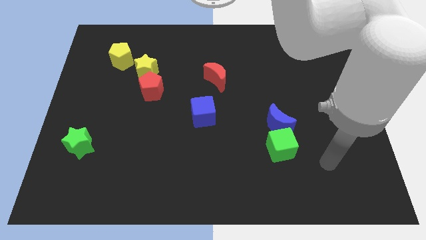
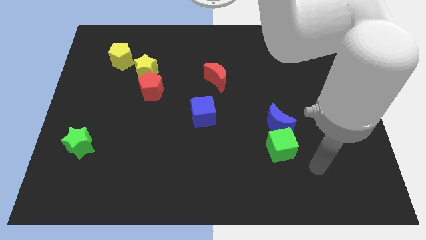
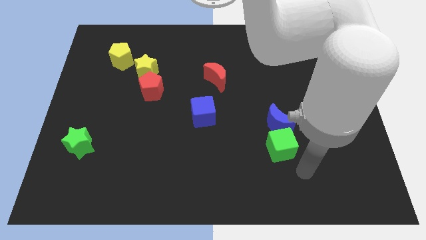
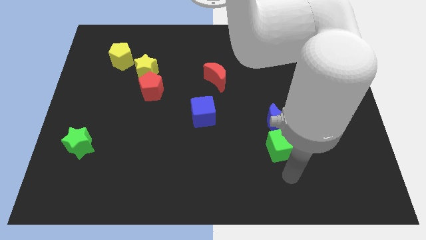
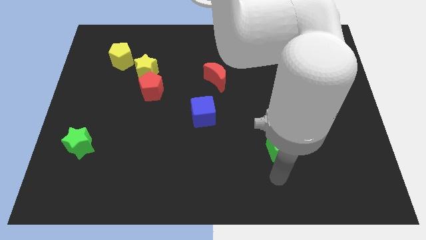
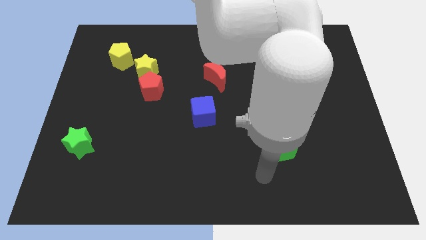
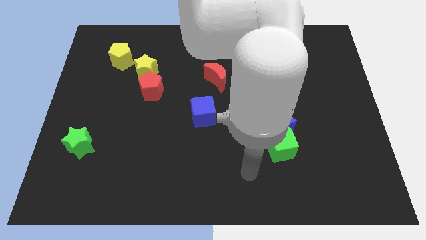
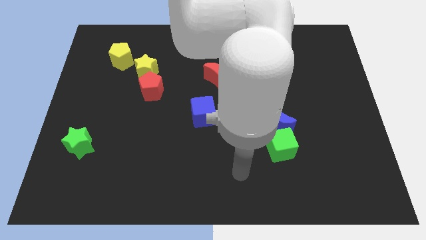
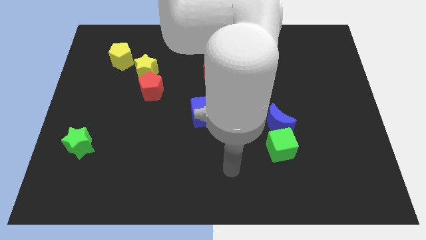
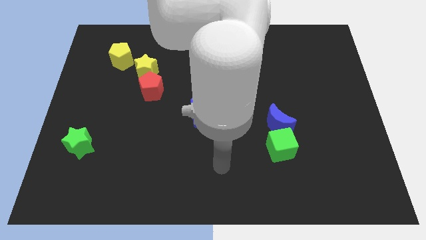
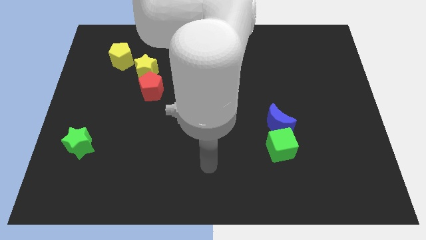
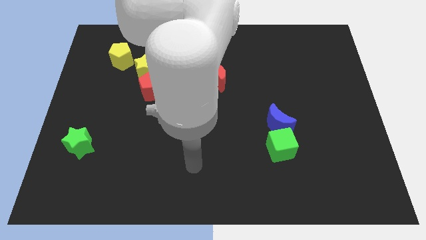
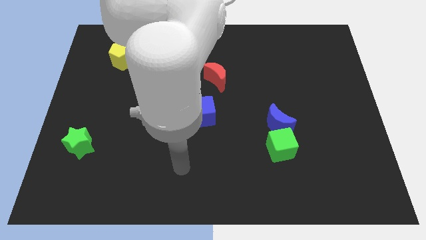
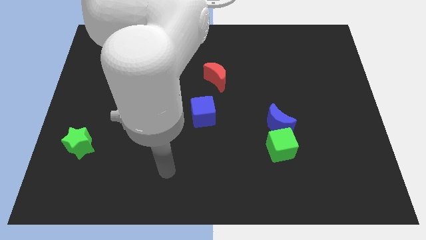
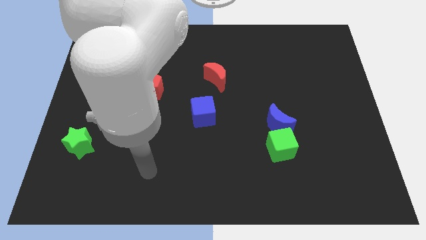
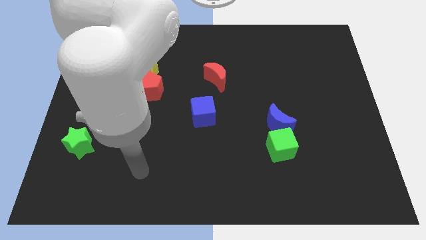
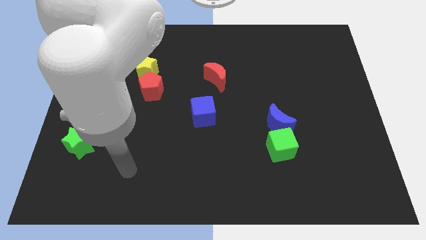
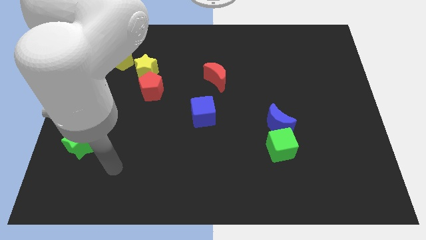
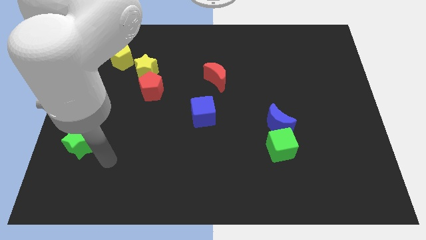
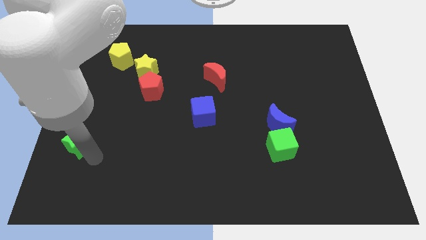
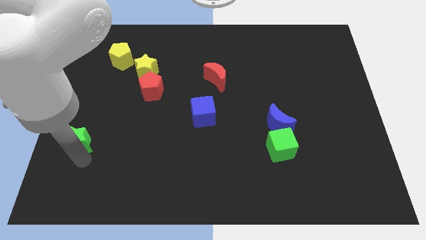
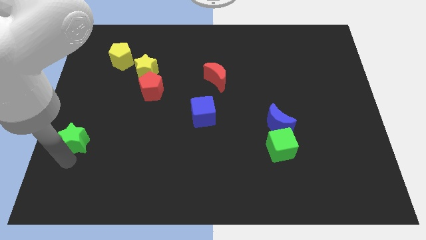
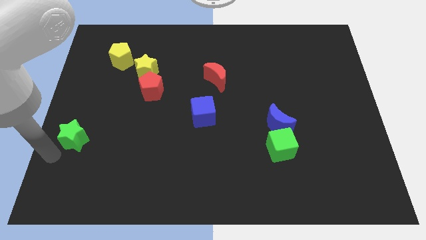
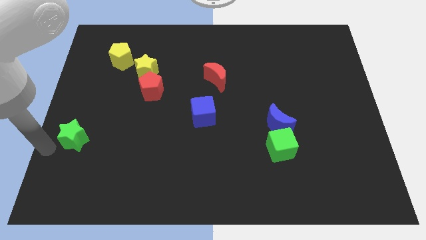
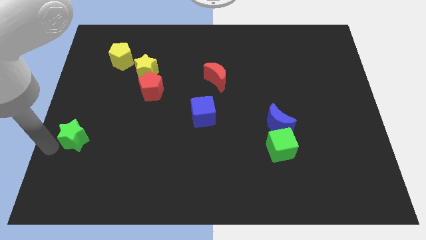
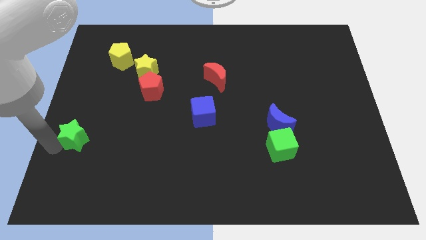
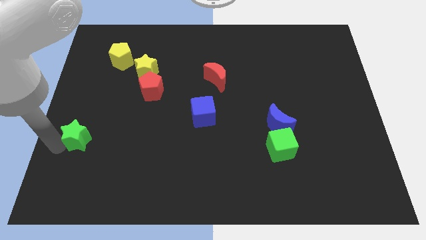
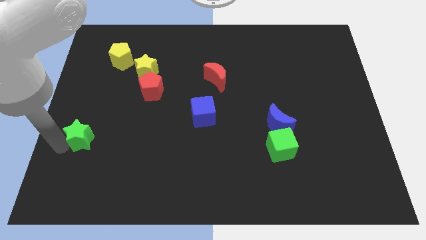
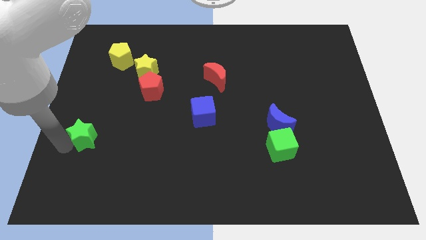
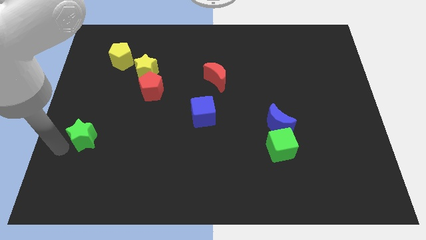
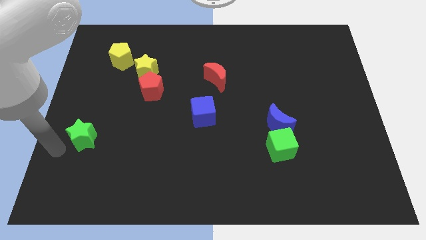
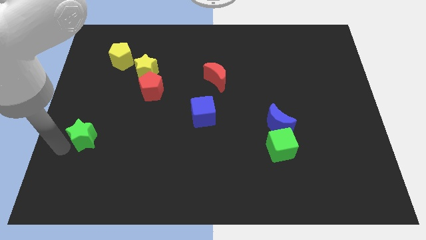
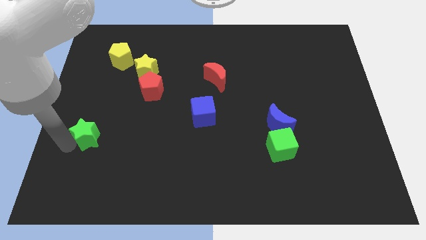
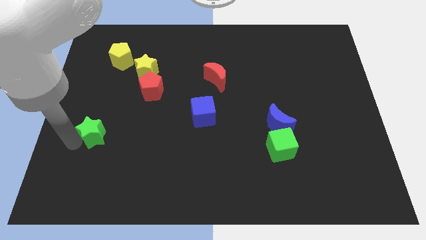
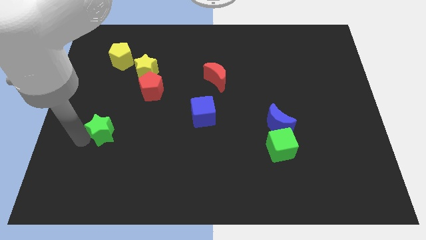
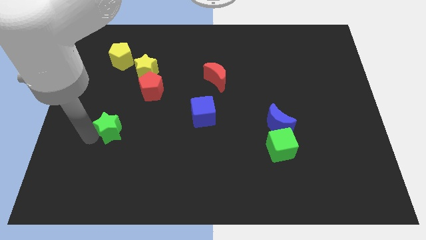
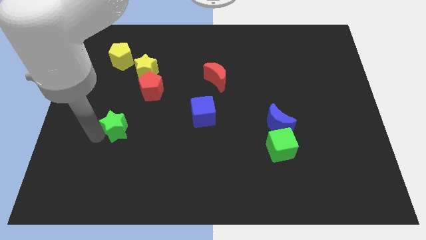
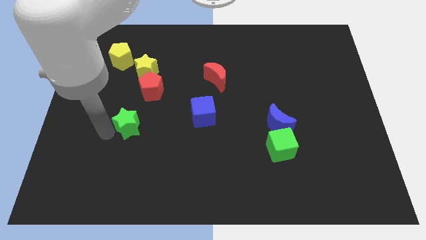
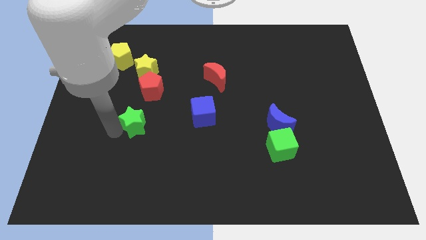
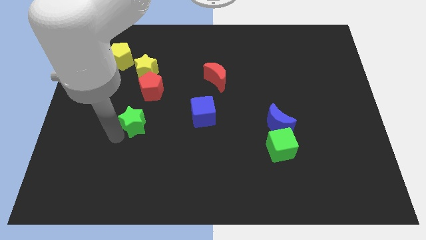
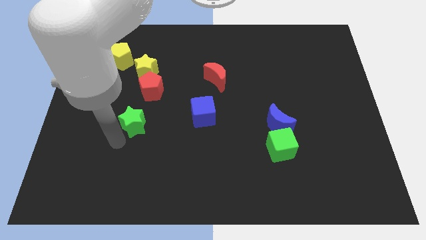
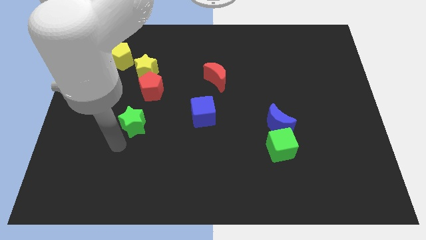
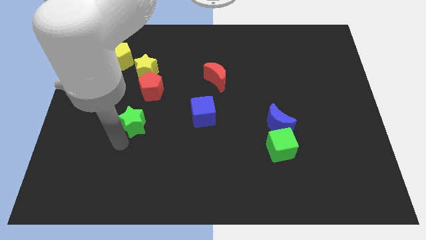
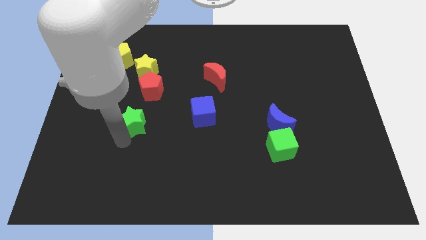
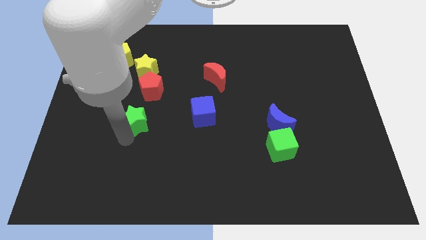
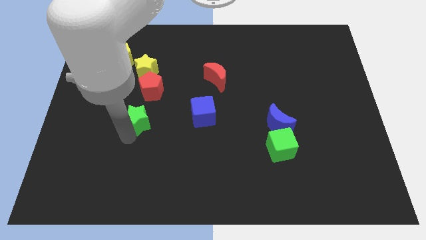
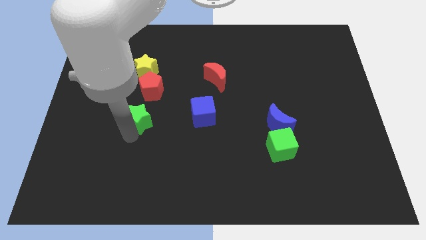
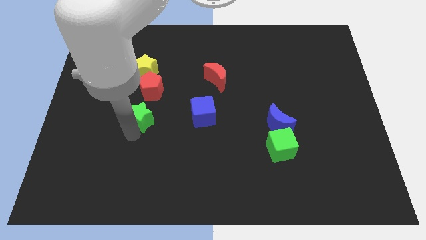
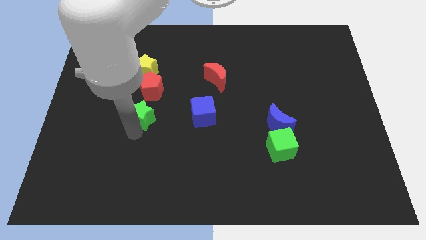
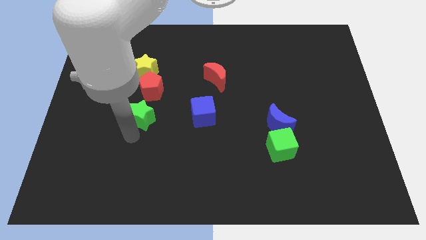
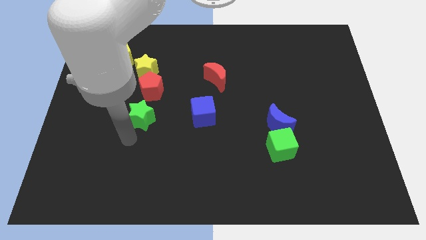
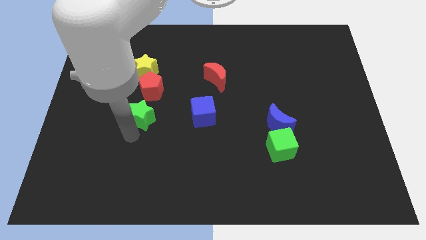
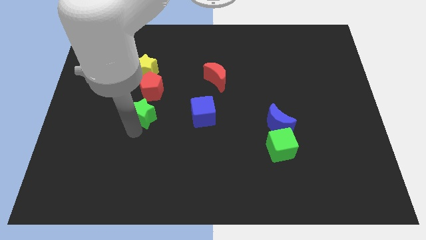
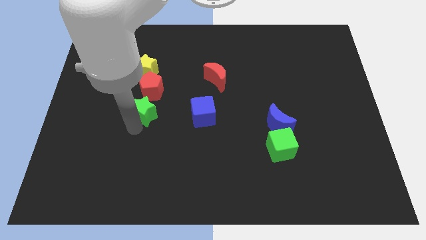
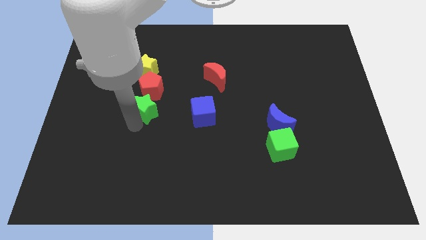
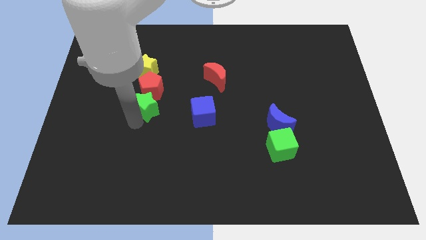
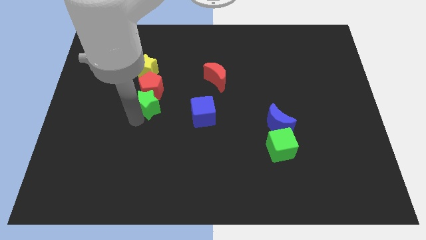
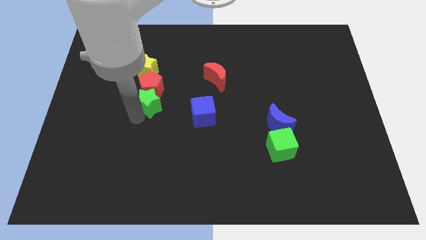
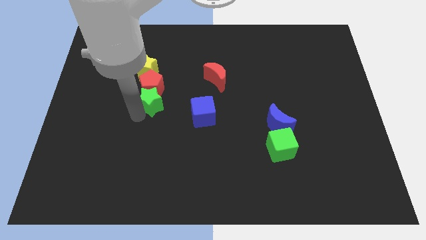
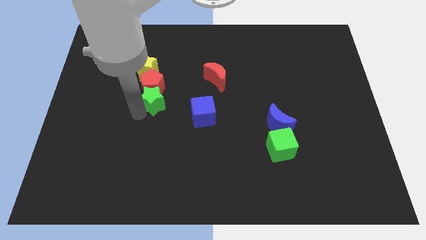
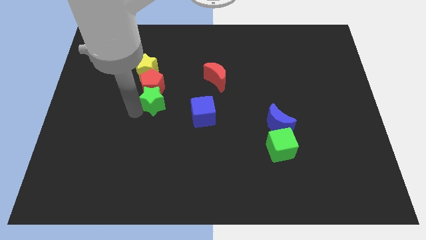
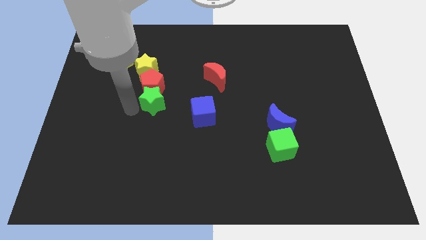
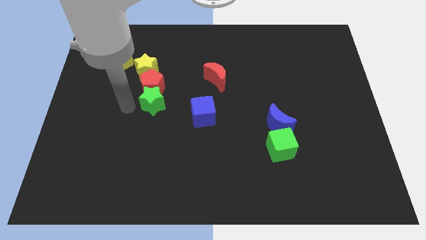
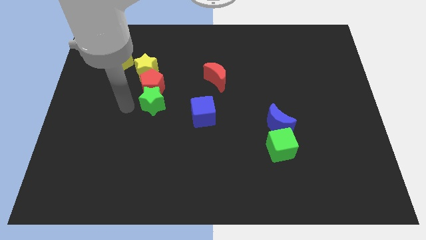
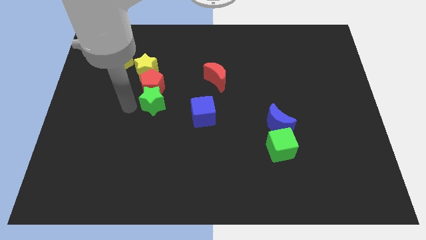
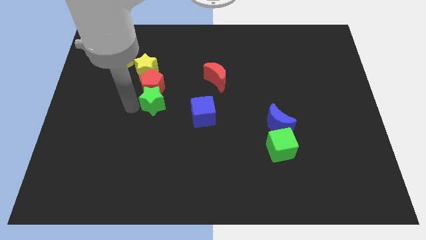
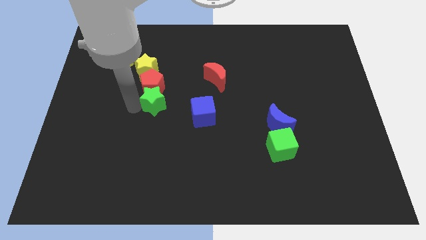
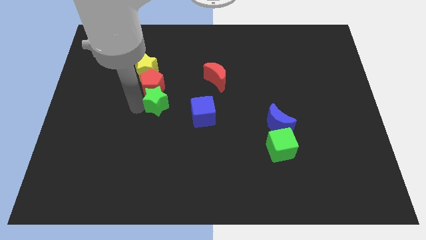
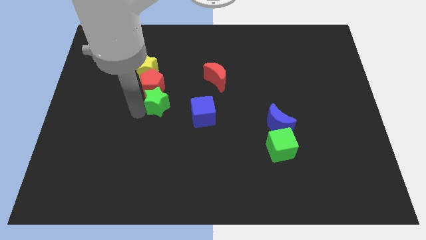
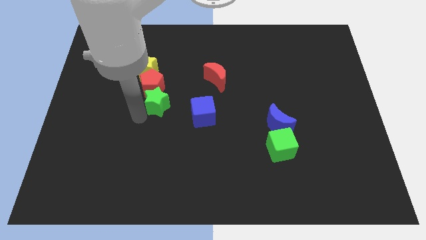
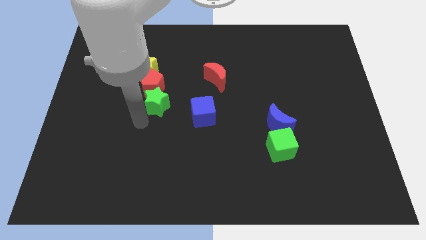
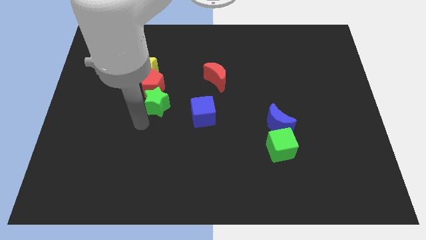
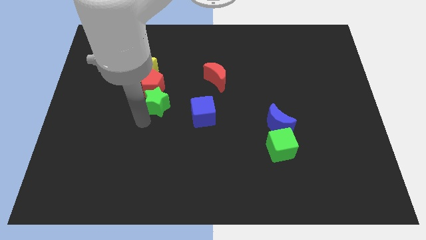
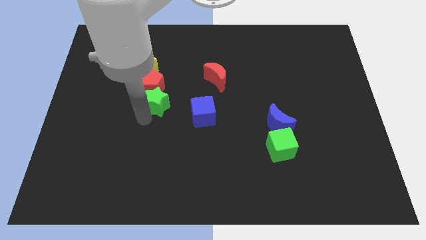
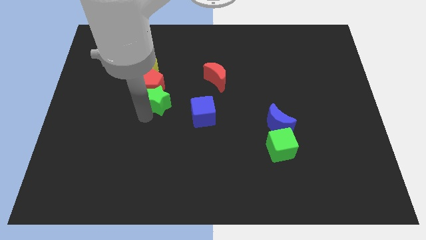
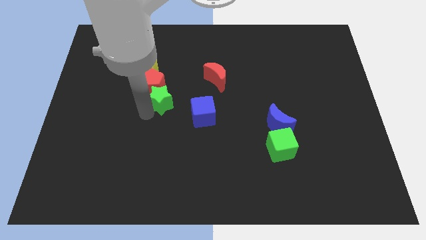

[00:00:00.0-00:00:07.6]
move the green star up and right diagonally

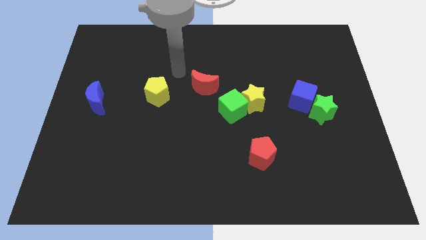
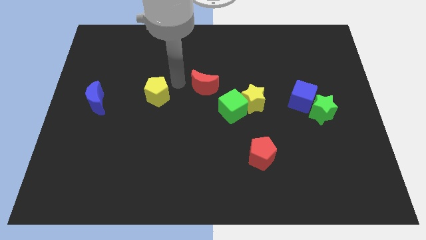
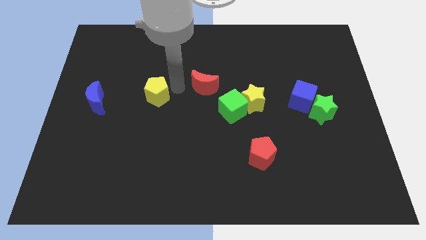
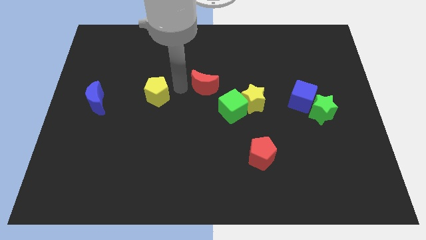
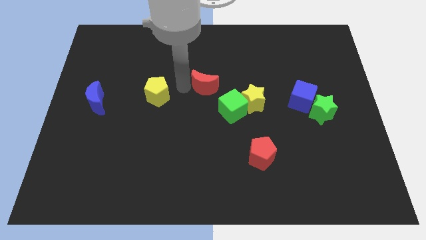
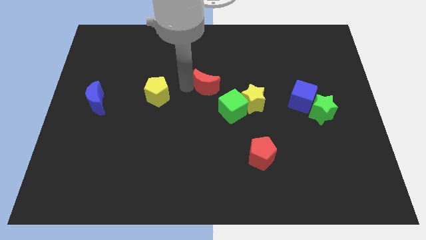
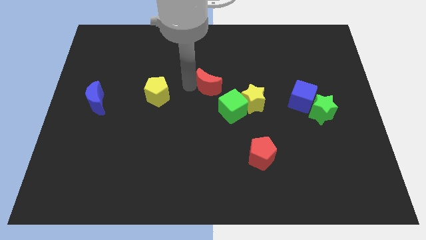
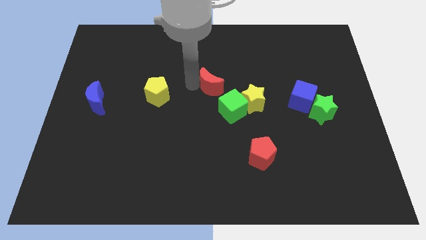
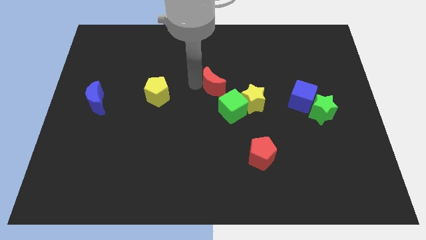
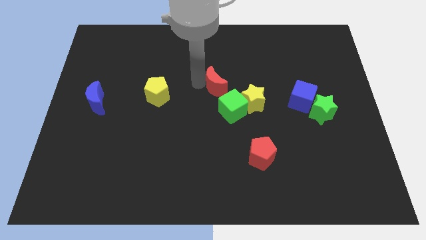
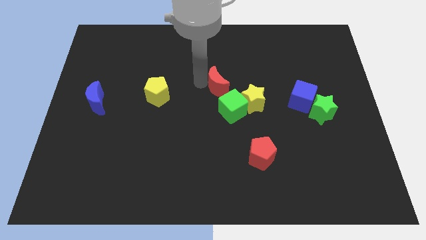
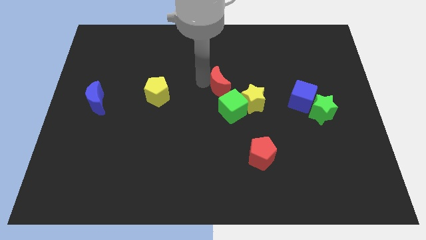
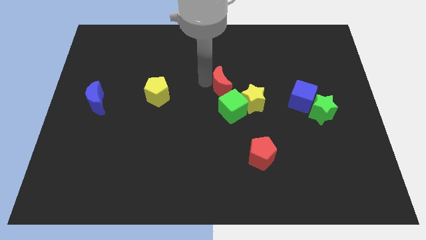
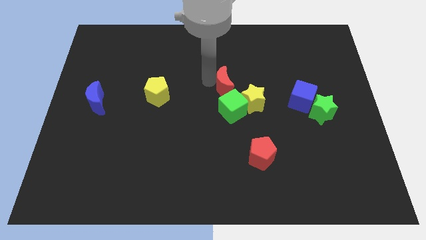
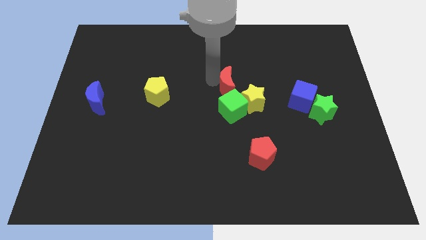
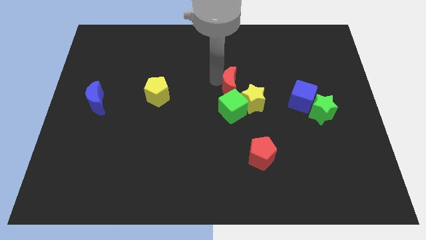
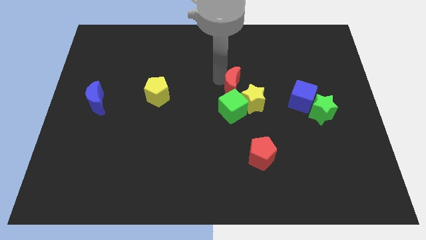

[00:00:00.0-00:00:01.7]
push the red moon to the right somewhat
